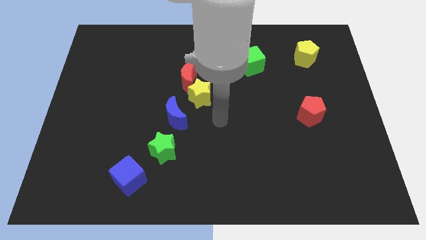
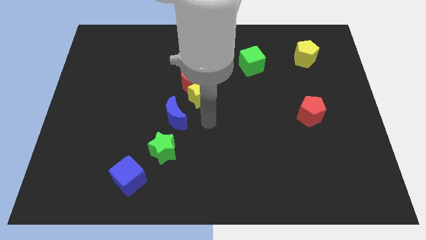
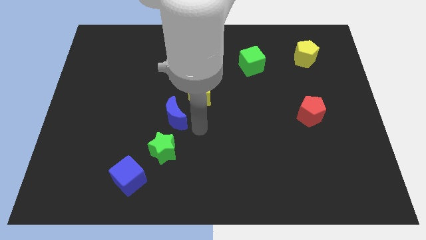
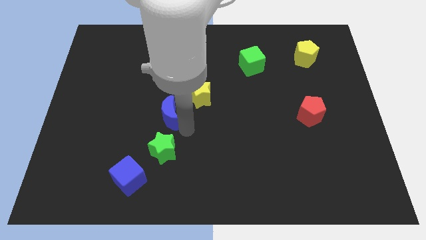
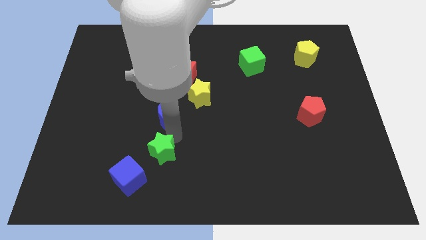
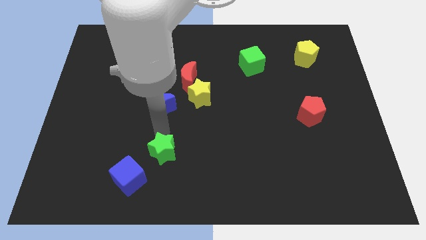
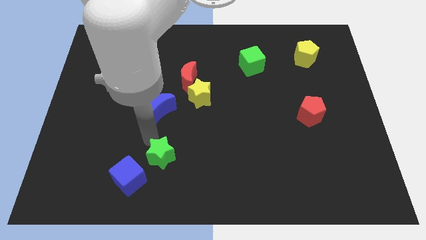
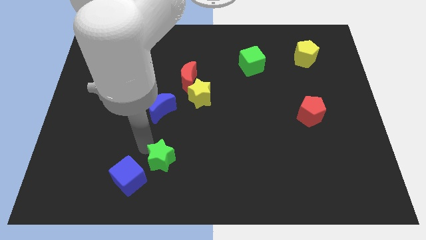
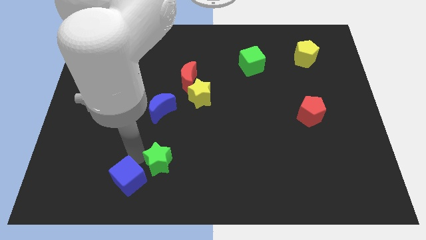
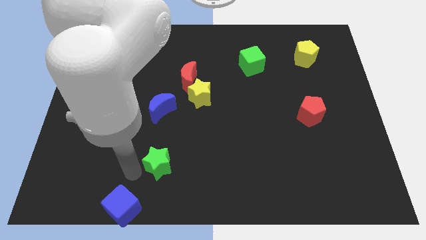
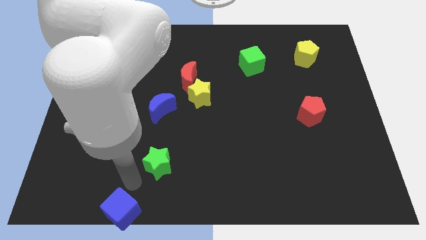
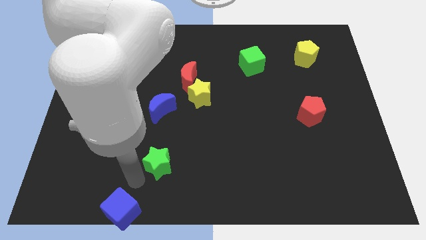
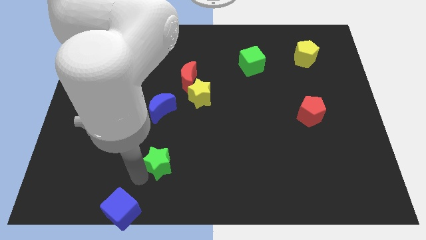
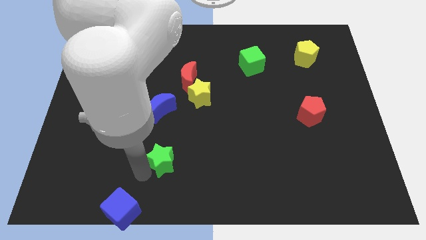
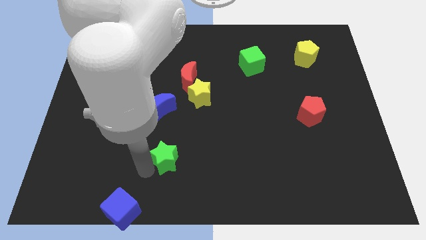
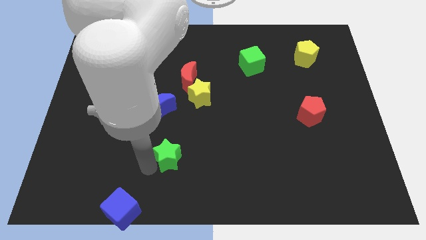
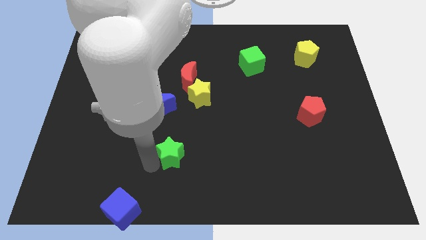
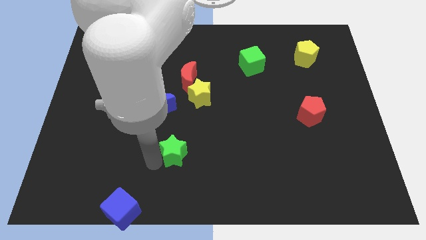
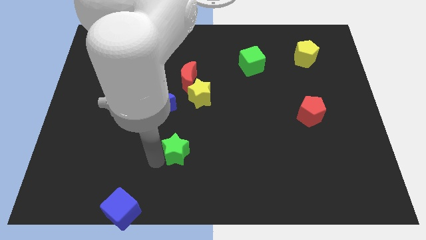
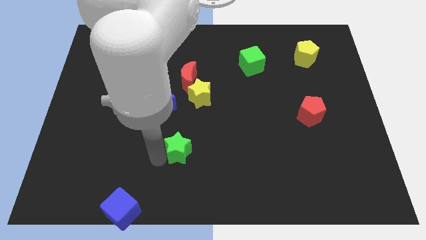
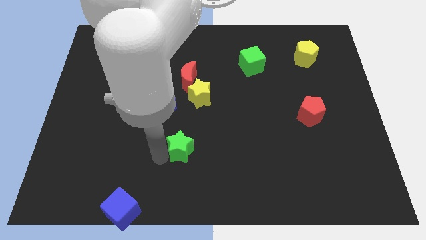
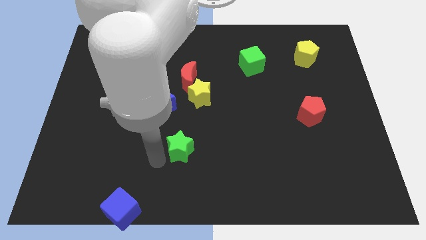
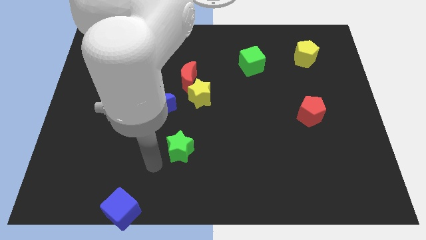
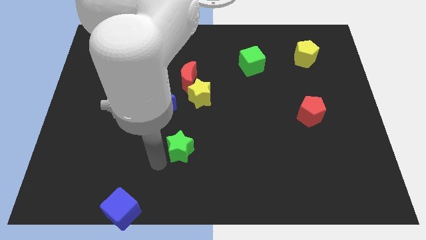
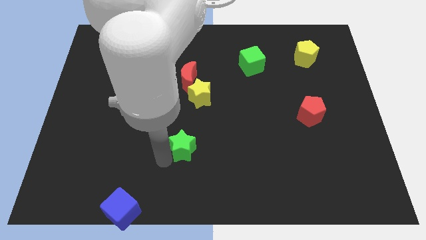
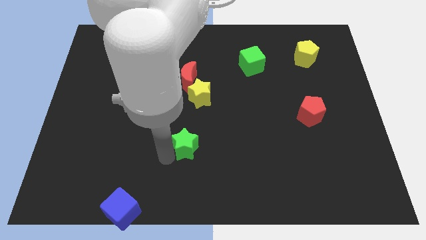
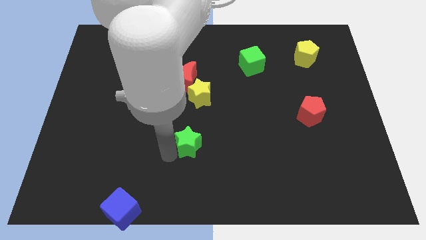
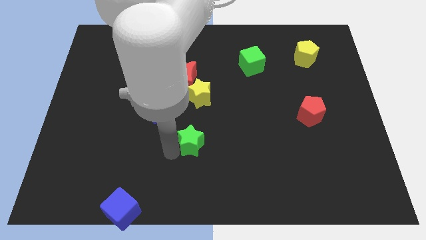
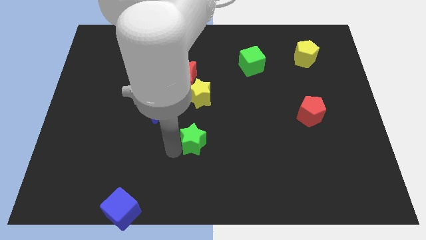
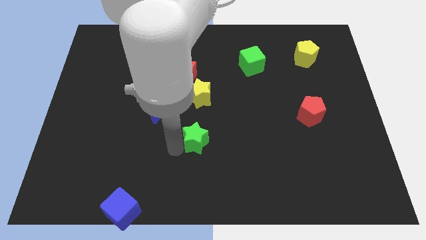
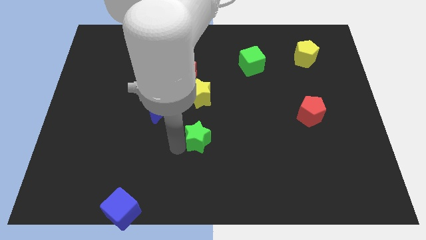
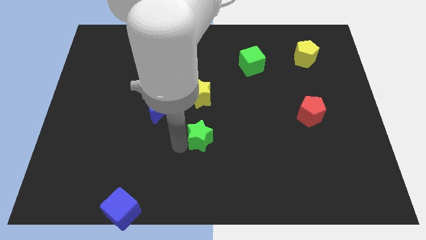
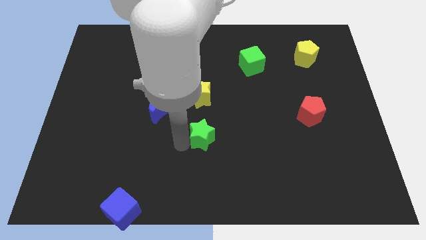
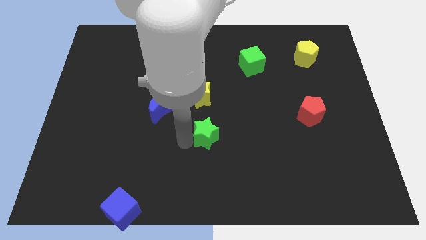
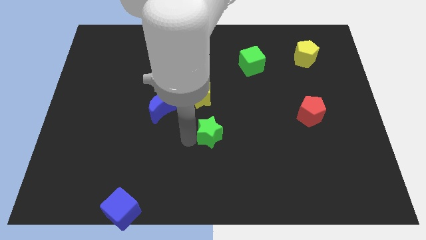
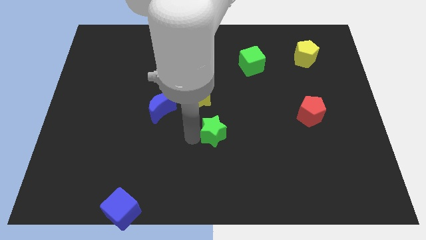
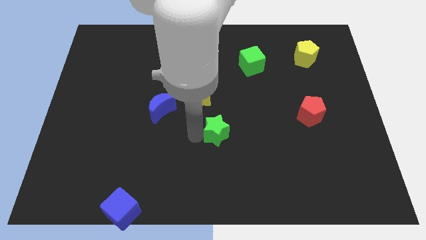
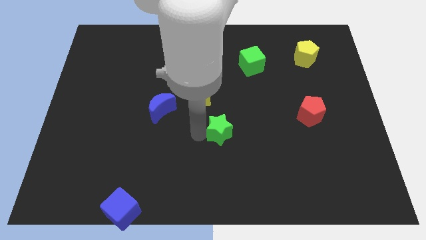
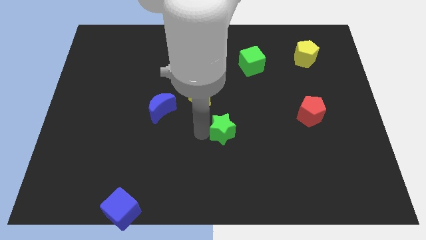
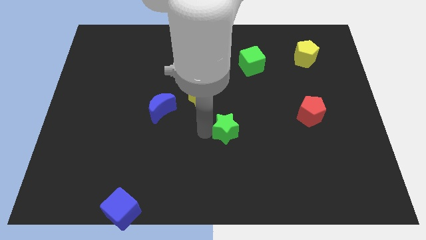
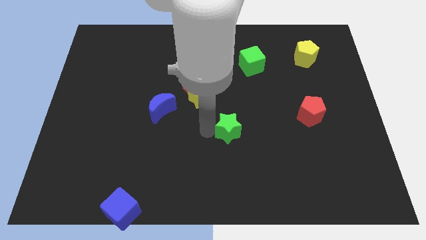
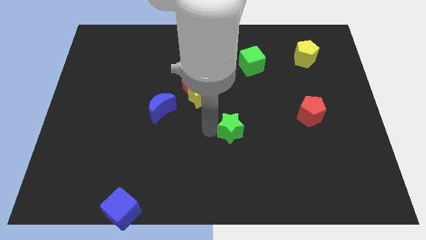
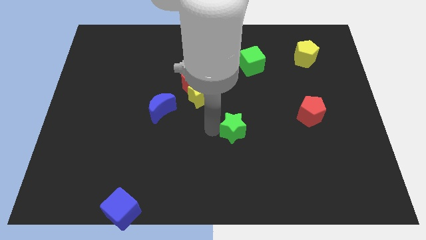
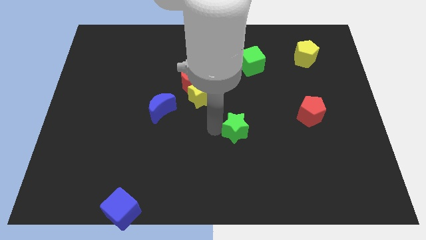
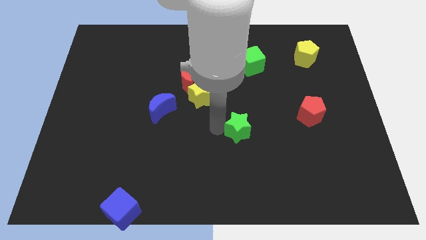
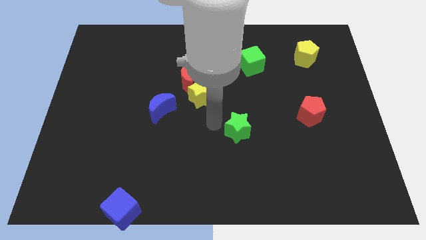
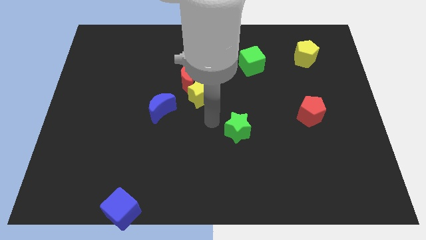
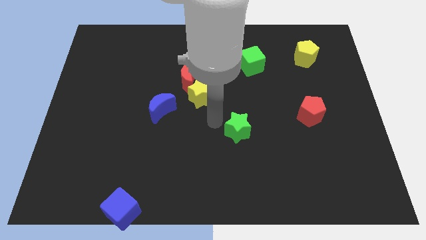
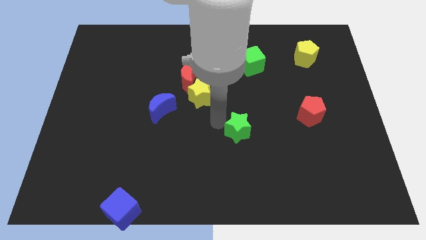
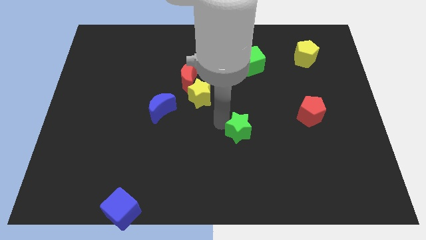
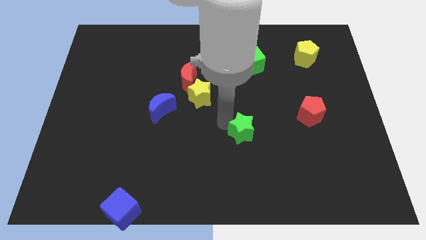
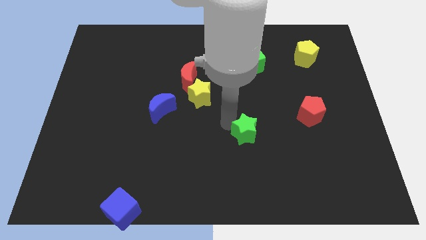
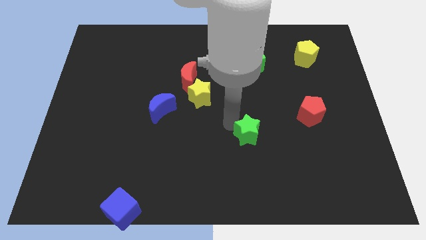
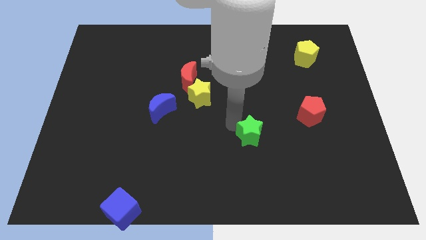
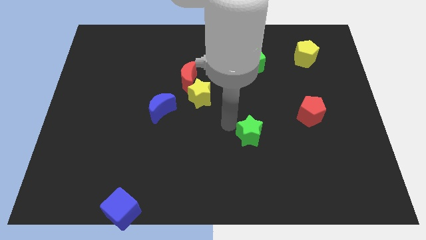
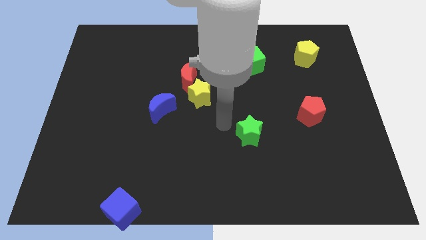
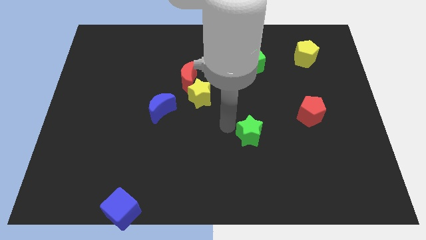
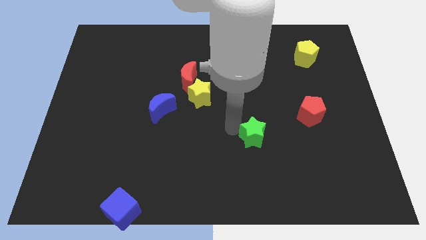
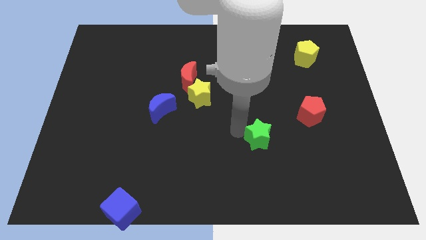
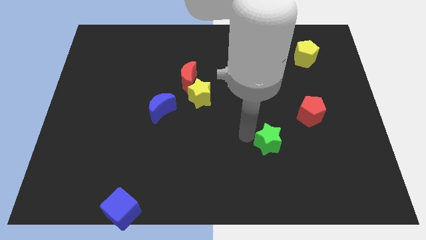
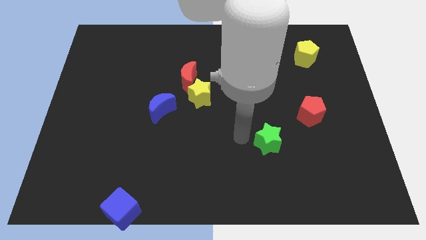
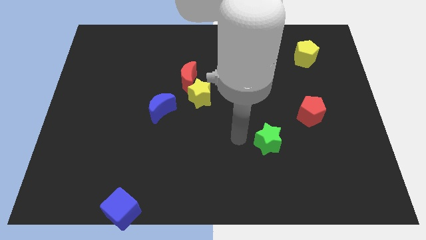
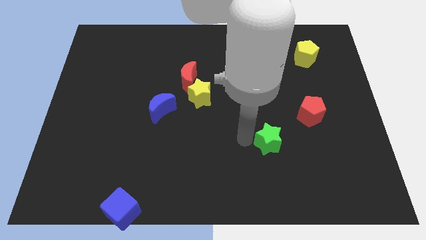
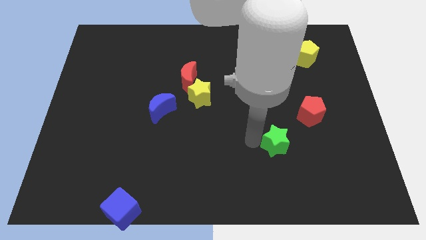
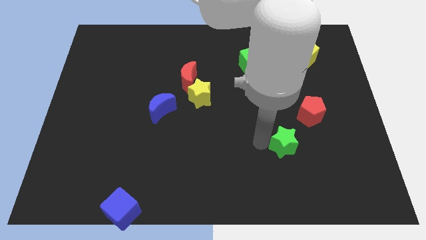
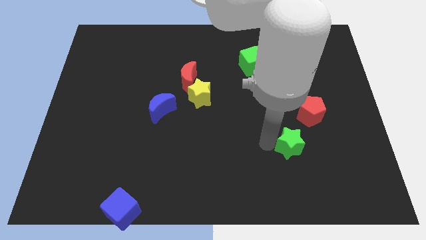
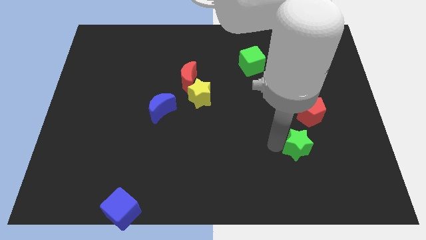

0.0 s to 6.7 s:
push the green star to the bottom side of the red pentagon
